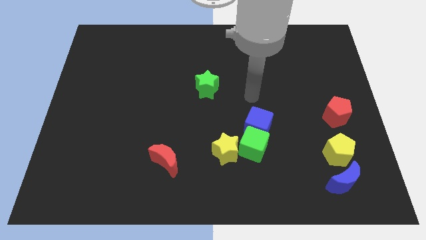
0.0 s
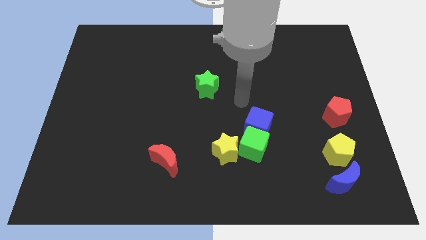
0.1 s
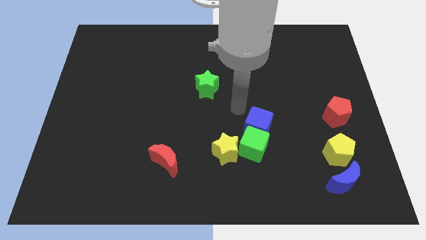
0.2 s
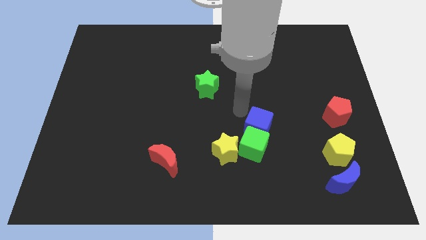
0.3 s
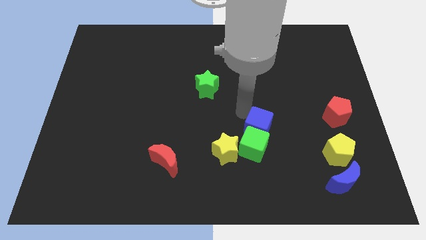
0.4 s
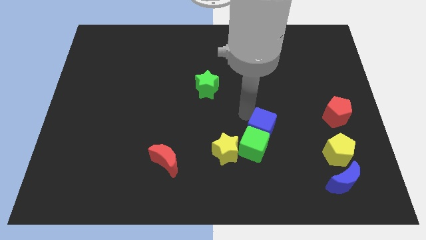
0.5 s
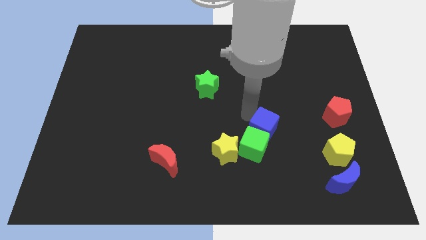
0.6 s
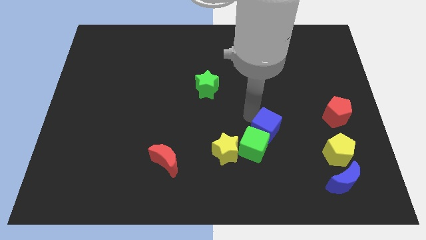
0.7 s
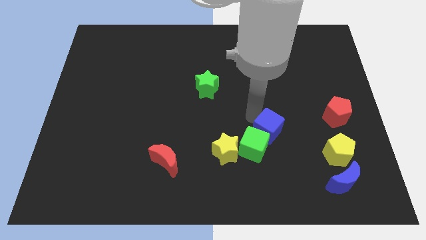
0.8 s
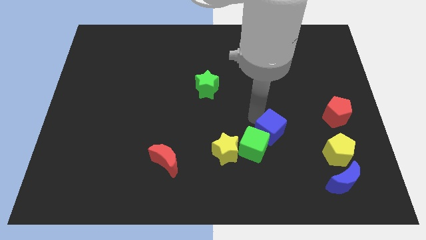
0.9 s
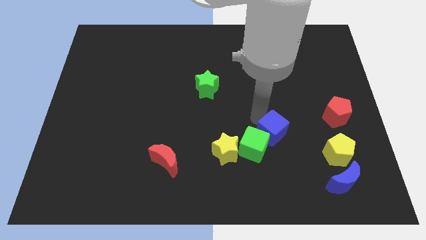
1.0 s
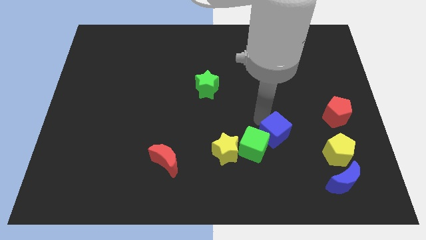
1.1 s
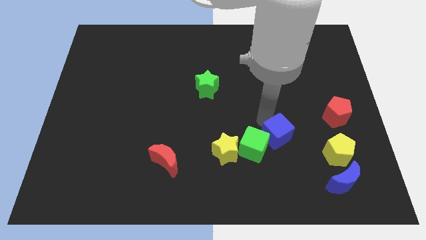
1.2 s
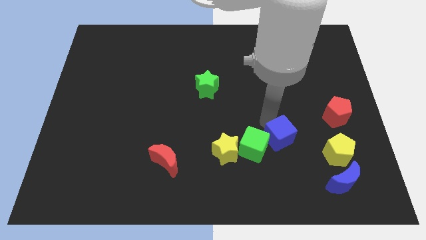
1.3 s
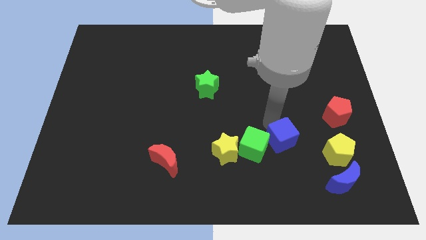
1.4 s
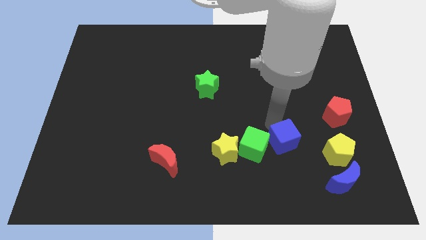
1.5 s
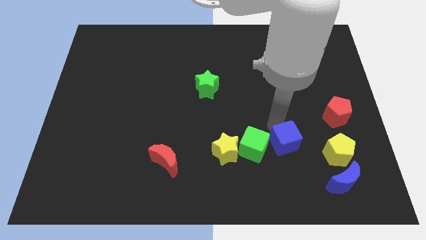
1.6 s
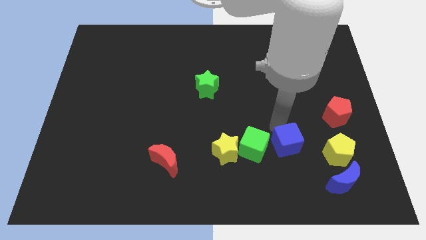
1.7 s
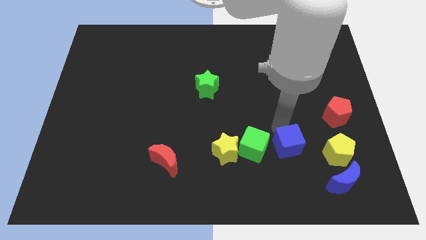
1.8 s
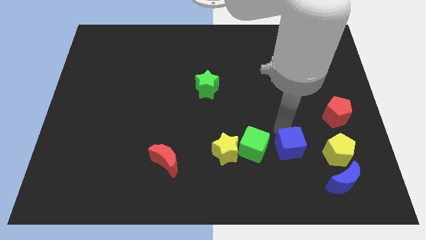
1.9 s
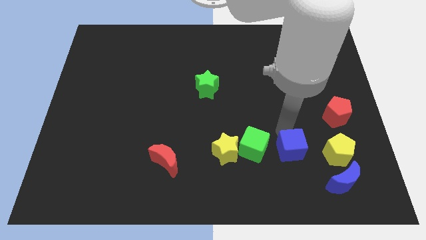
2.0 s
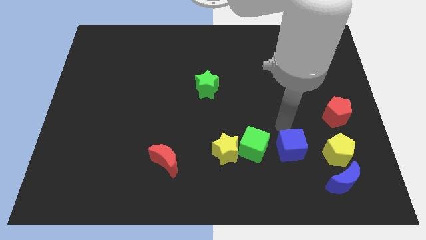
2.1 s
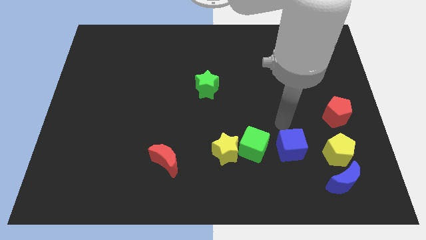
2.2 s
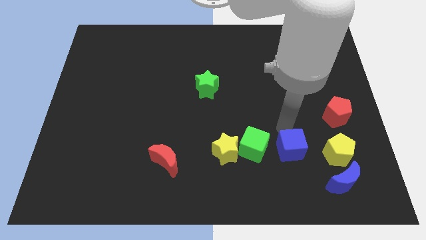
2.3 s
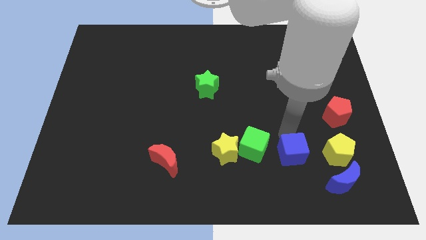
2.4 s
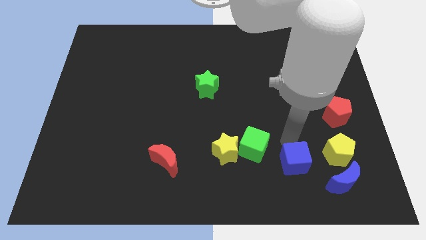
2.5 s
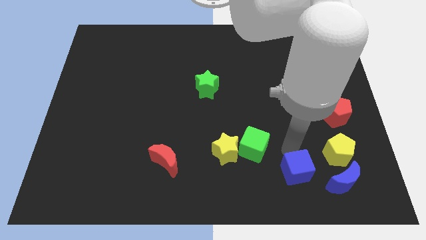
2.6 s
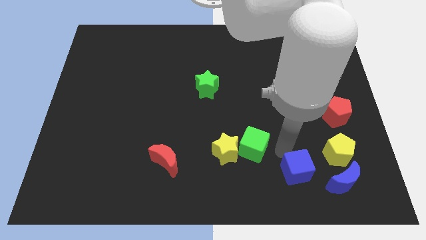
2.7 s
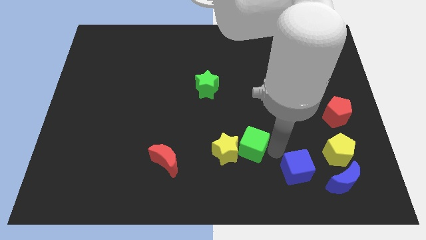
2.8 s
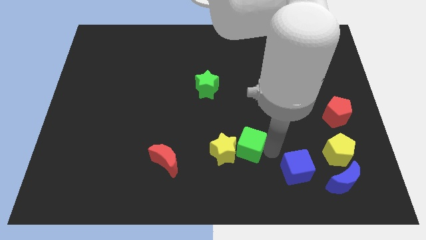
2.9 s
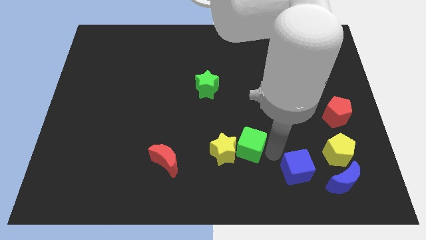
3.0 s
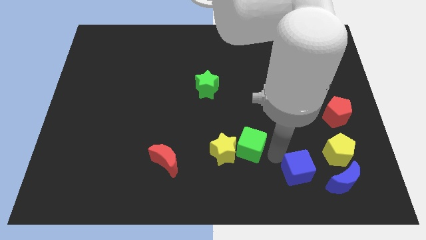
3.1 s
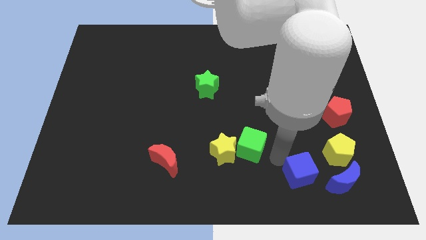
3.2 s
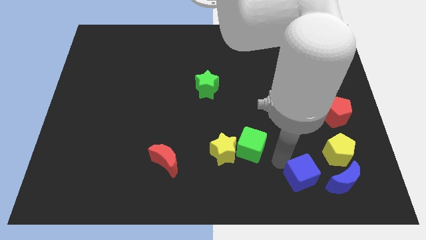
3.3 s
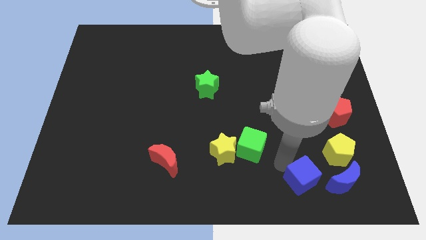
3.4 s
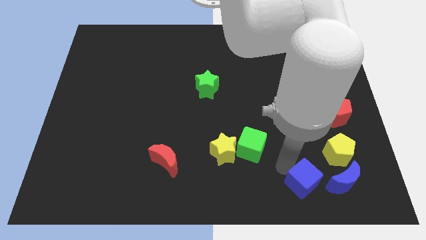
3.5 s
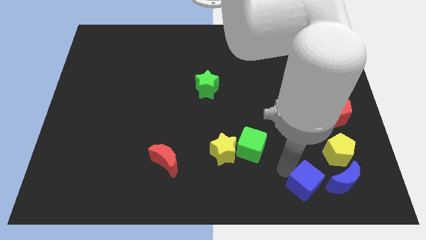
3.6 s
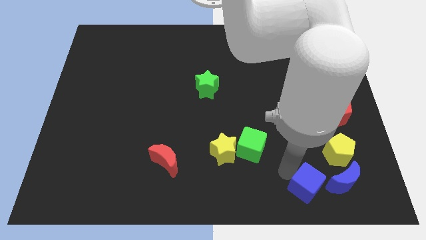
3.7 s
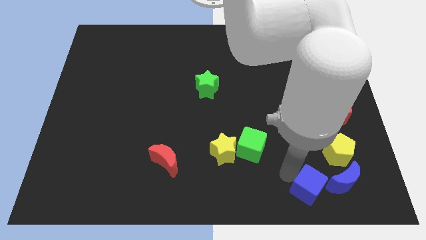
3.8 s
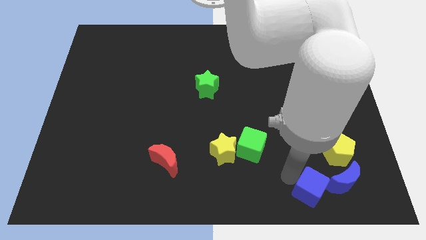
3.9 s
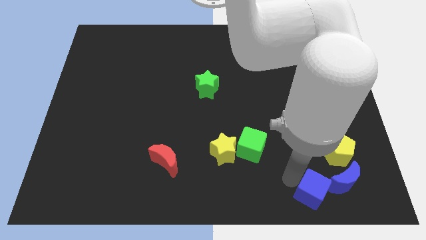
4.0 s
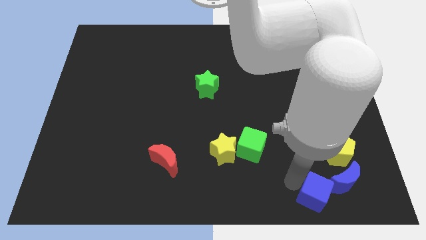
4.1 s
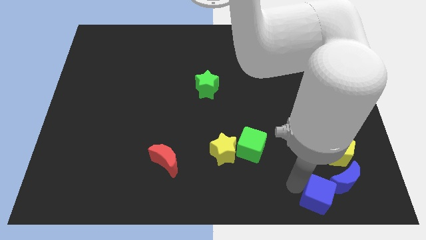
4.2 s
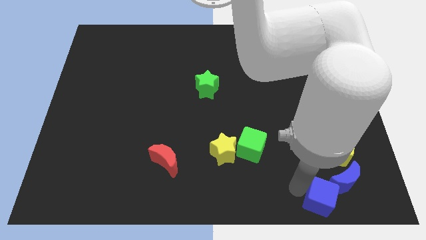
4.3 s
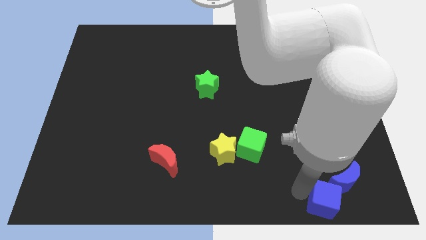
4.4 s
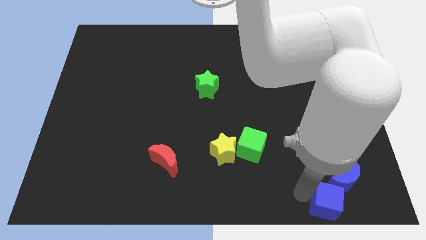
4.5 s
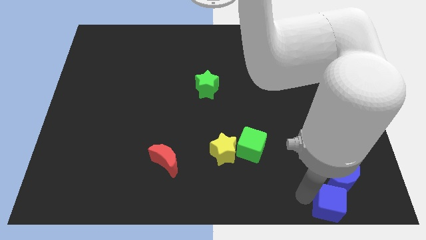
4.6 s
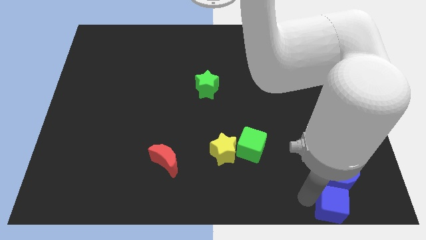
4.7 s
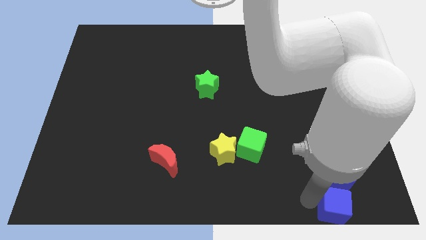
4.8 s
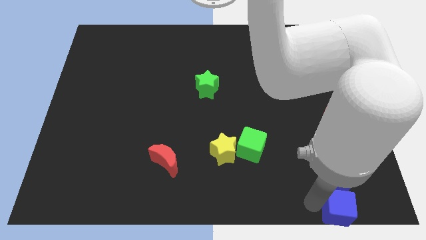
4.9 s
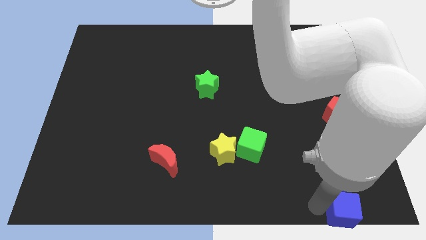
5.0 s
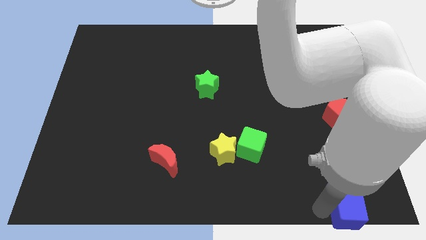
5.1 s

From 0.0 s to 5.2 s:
move the blue cube to the lower right corner

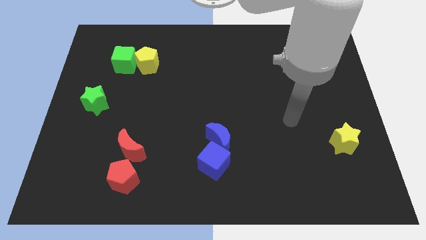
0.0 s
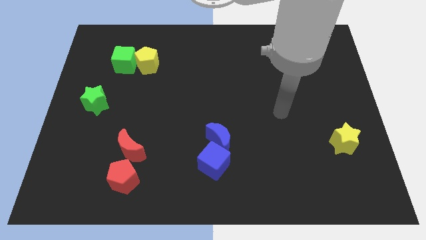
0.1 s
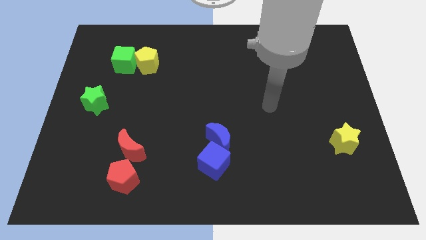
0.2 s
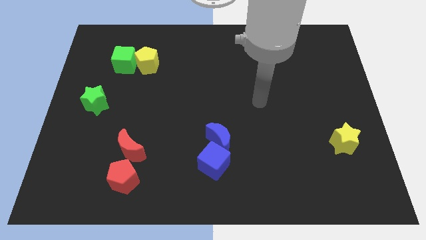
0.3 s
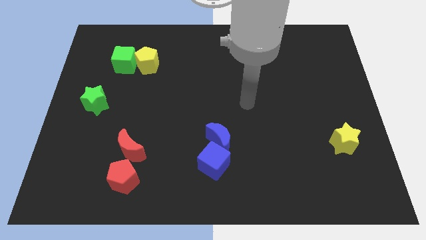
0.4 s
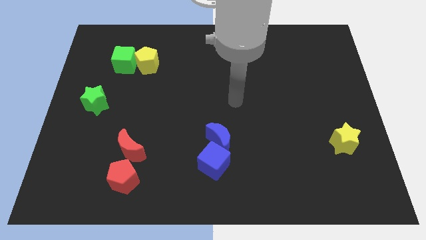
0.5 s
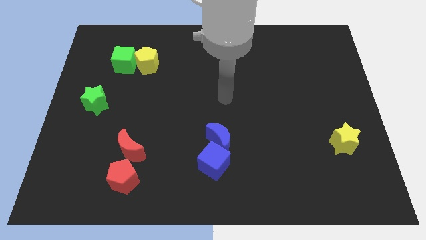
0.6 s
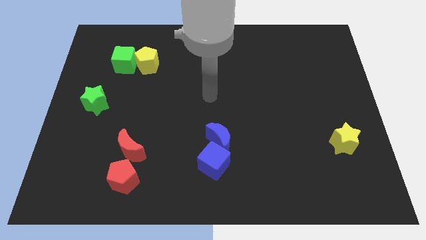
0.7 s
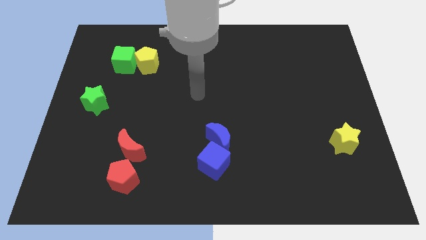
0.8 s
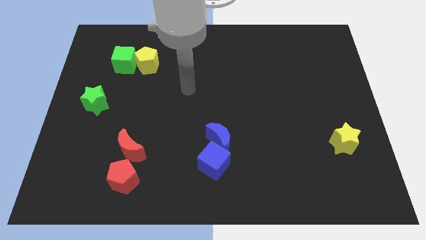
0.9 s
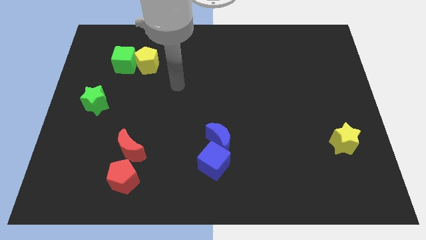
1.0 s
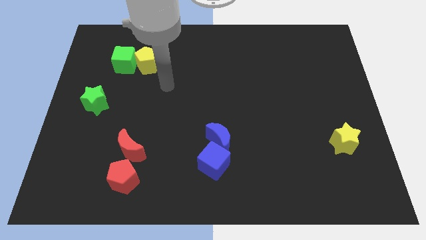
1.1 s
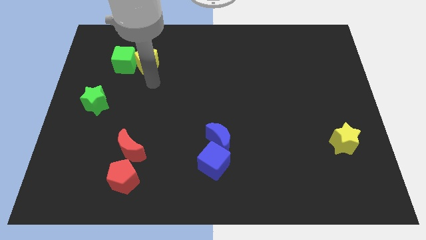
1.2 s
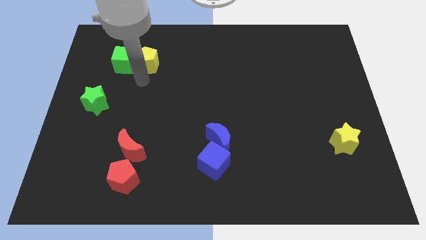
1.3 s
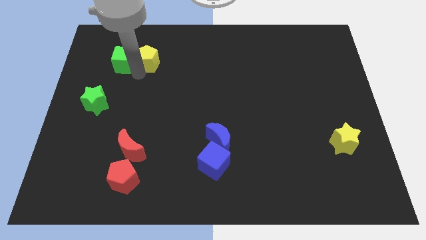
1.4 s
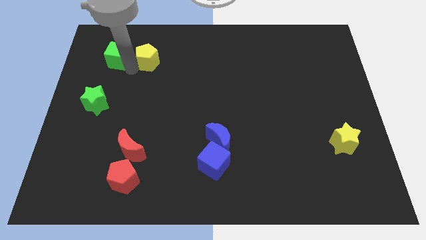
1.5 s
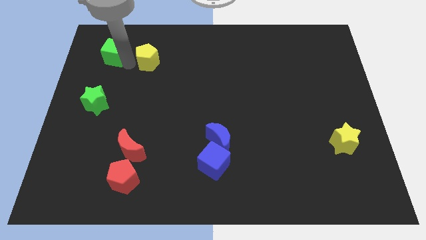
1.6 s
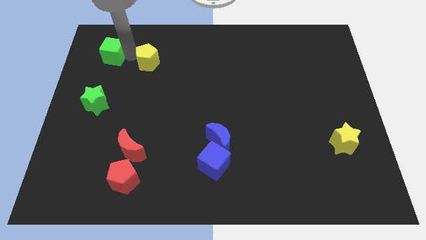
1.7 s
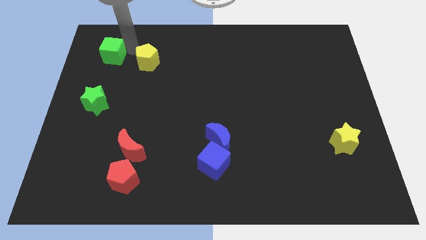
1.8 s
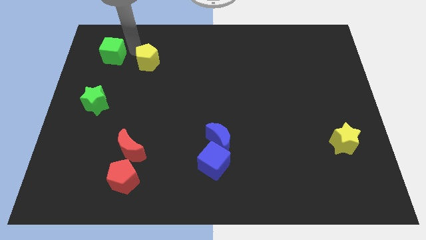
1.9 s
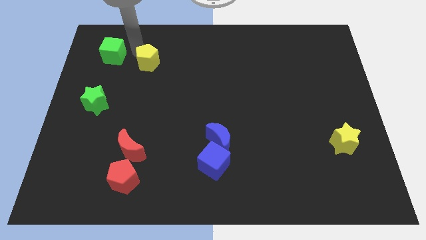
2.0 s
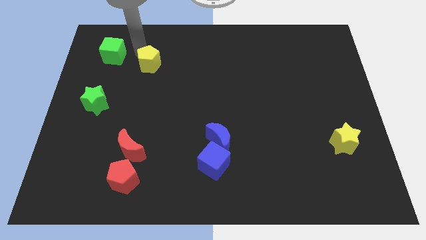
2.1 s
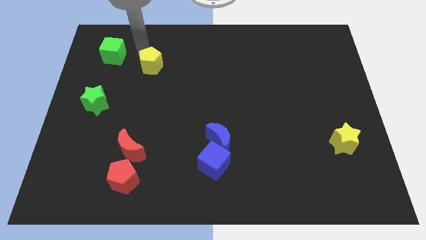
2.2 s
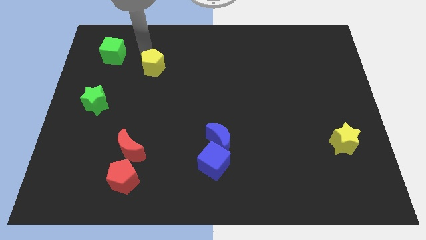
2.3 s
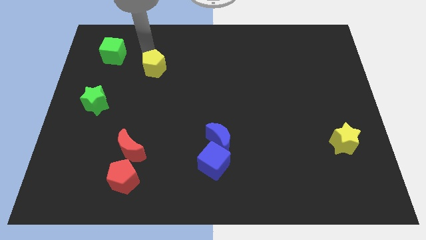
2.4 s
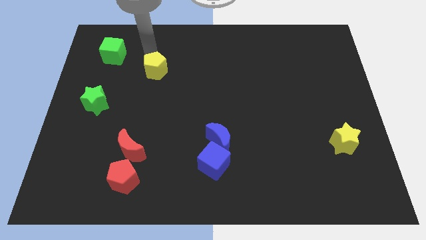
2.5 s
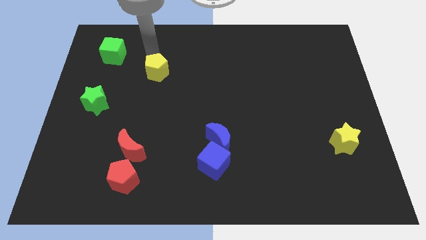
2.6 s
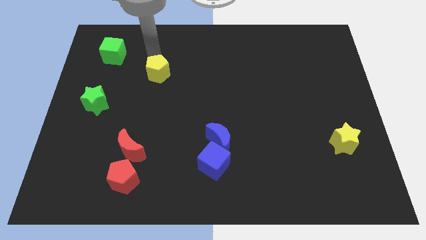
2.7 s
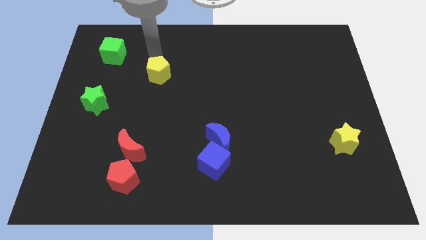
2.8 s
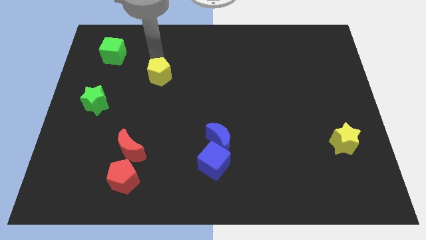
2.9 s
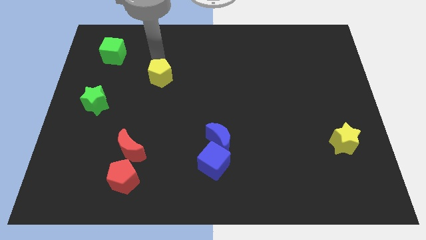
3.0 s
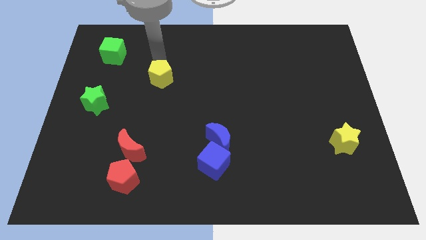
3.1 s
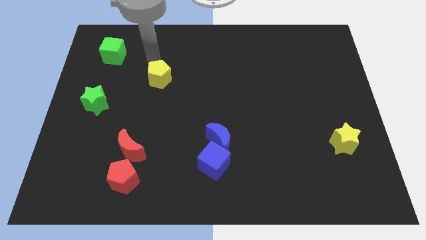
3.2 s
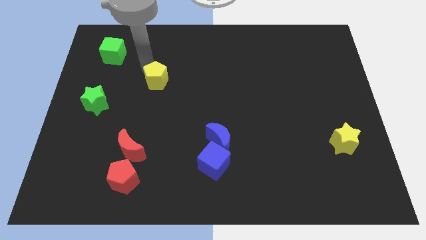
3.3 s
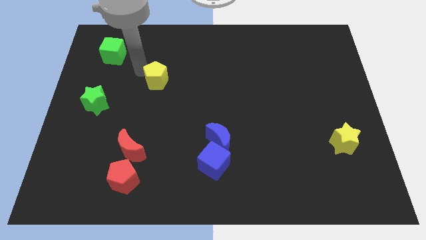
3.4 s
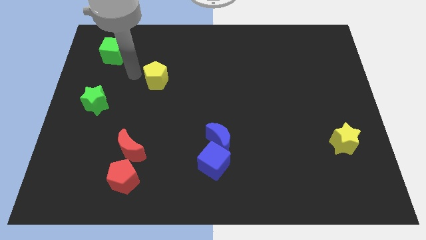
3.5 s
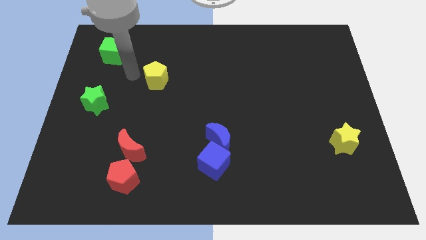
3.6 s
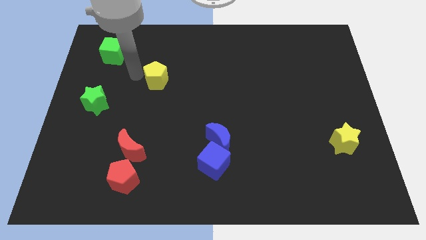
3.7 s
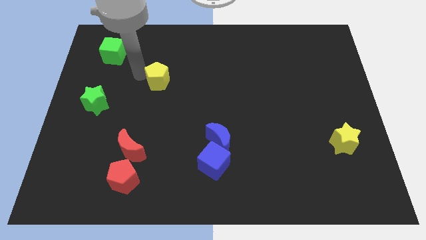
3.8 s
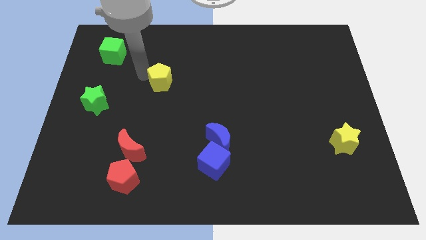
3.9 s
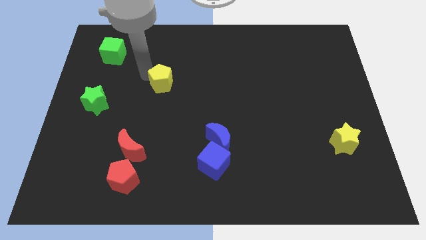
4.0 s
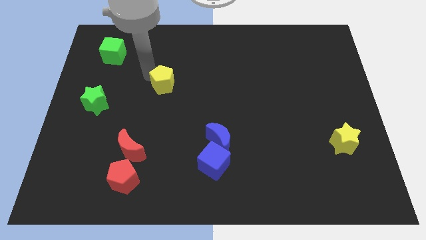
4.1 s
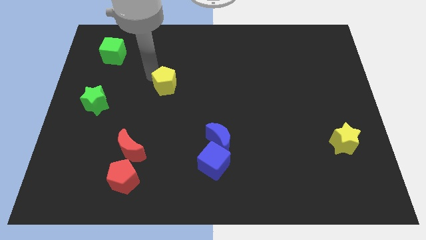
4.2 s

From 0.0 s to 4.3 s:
push the yellow pentagon to the middle
